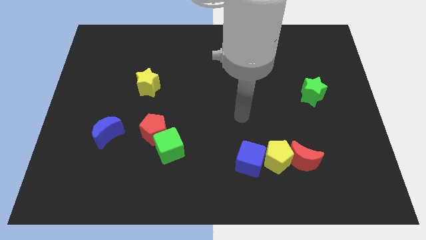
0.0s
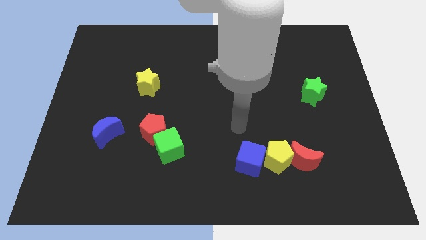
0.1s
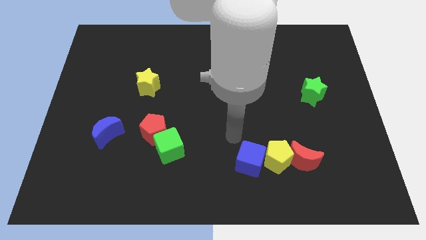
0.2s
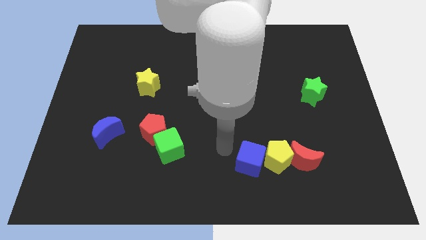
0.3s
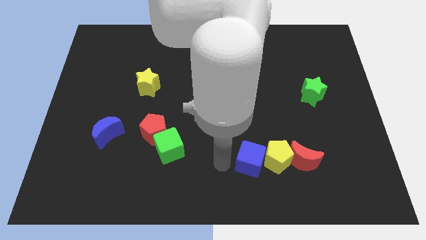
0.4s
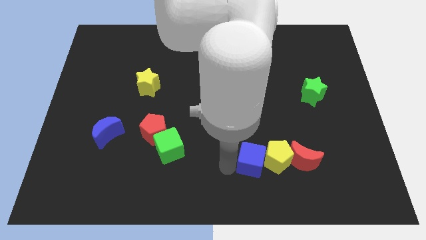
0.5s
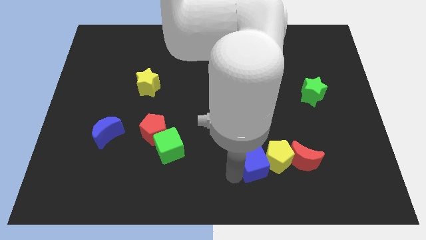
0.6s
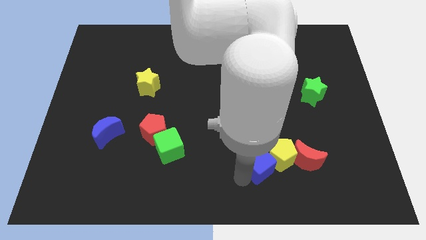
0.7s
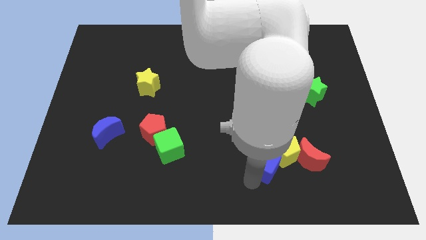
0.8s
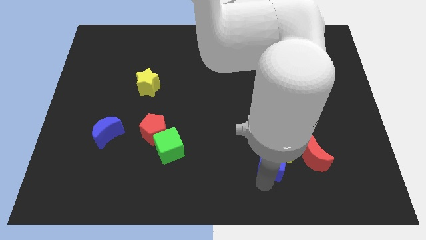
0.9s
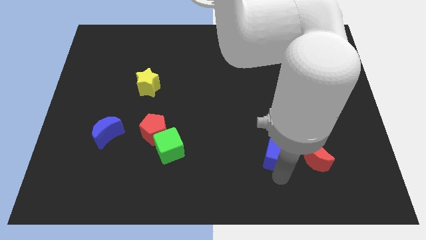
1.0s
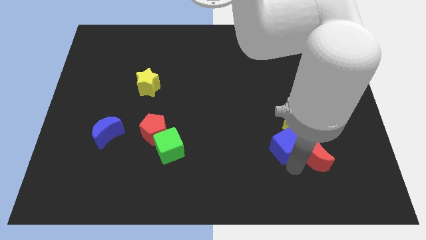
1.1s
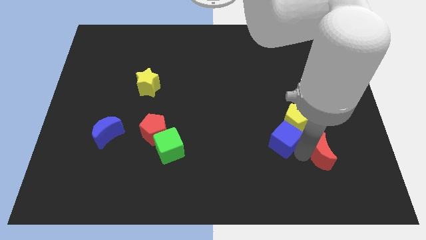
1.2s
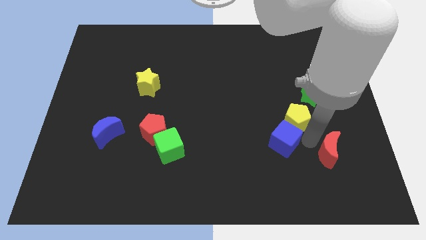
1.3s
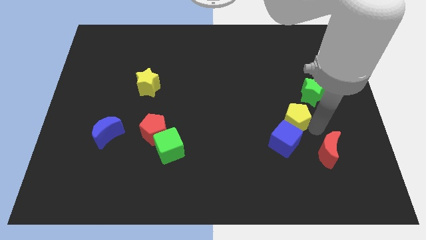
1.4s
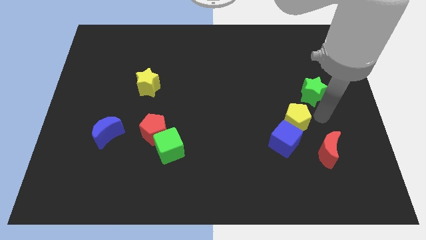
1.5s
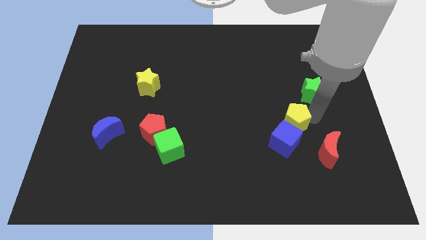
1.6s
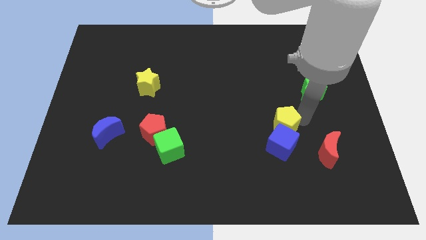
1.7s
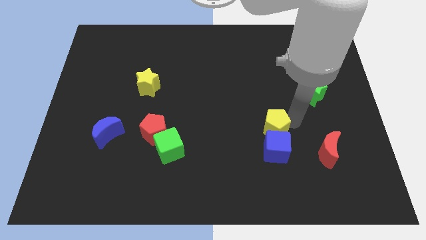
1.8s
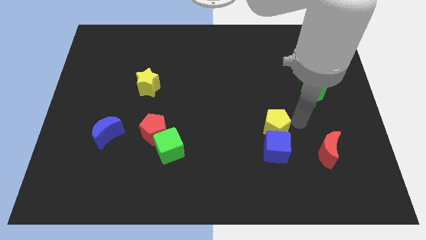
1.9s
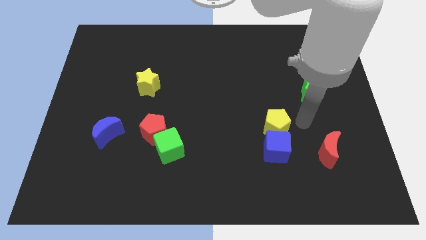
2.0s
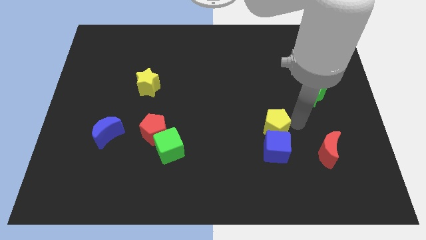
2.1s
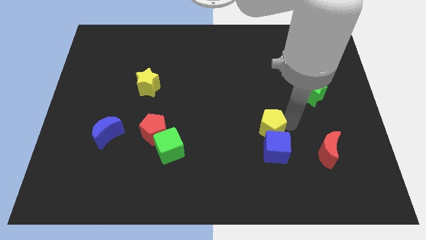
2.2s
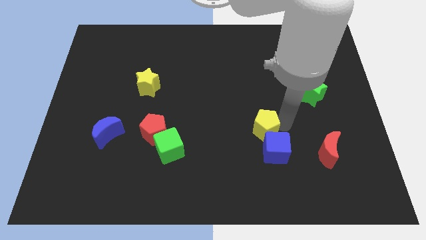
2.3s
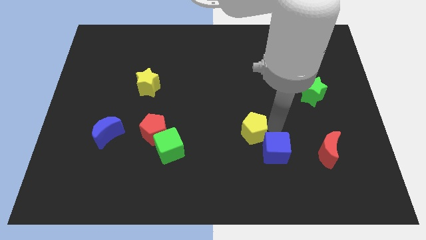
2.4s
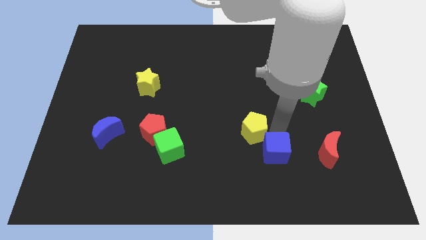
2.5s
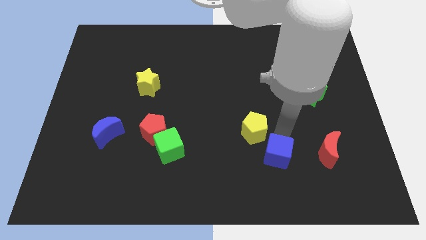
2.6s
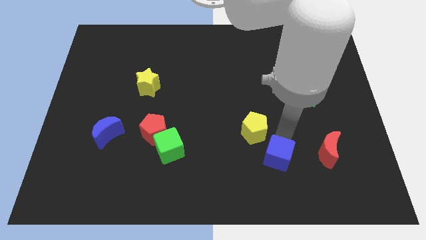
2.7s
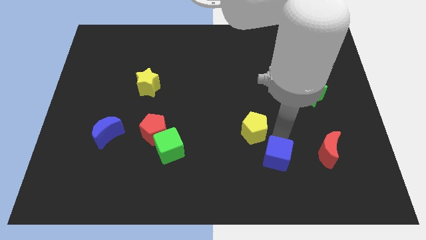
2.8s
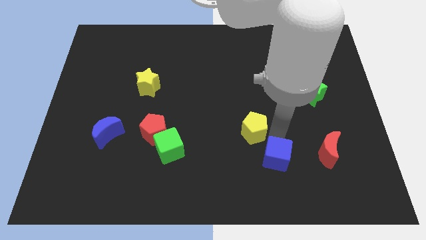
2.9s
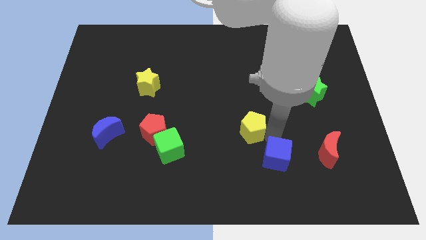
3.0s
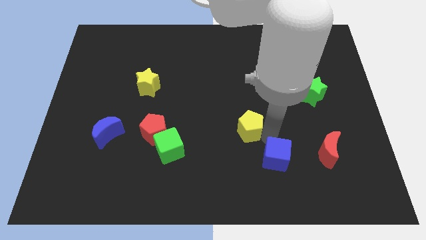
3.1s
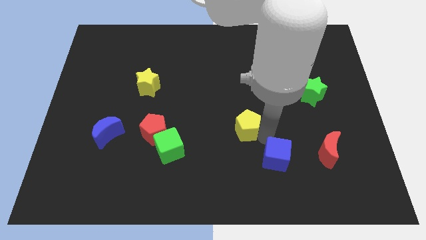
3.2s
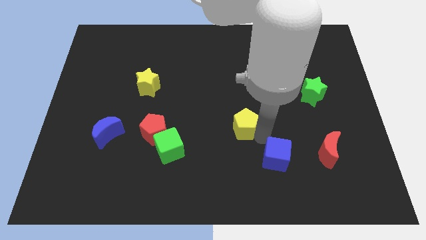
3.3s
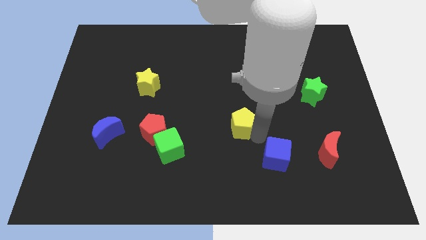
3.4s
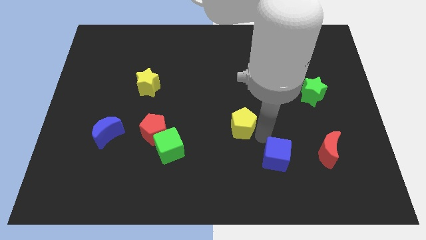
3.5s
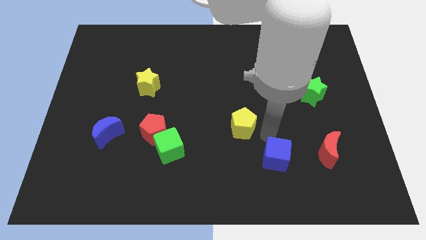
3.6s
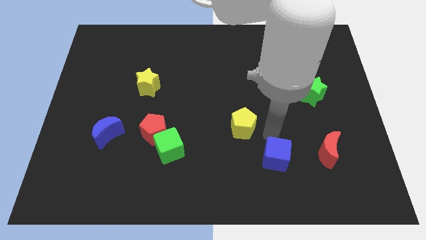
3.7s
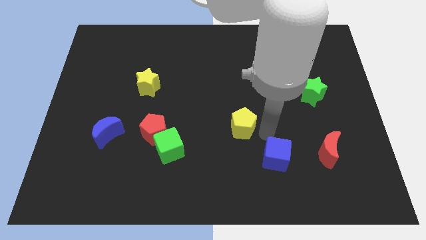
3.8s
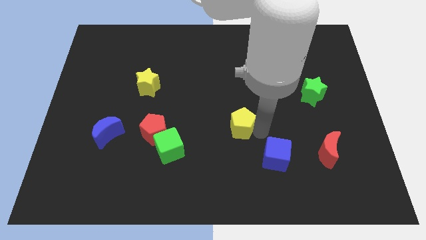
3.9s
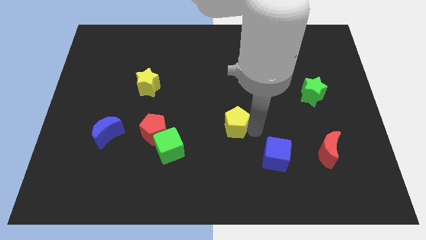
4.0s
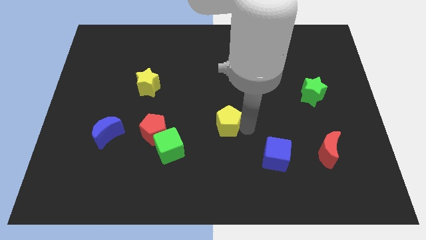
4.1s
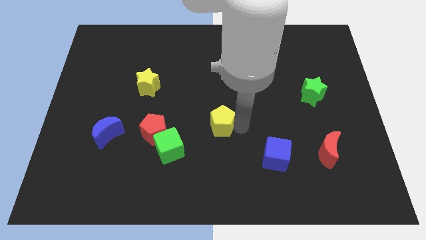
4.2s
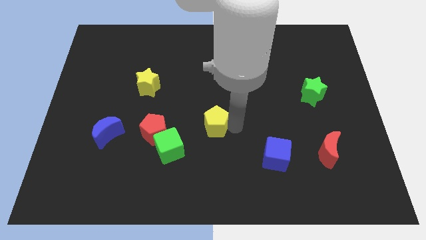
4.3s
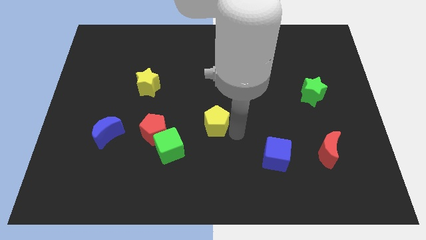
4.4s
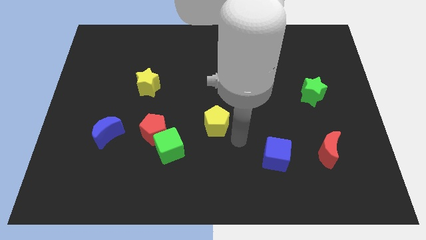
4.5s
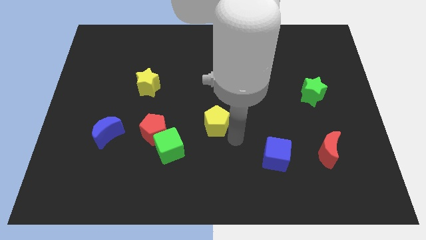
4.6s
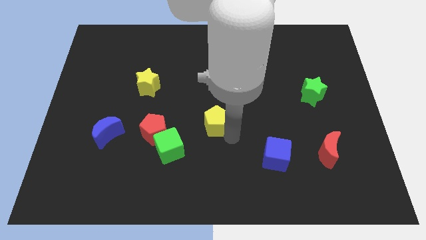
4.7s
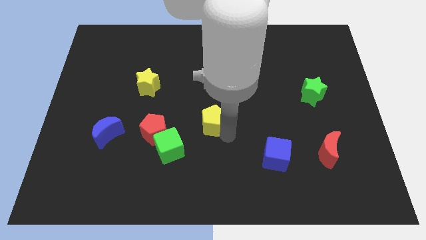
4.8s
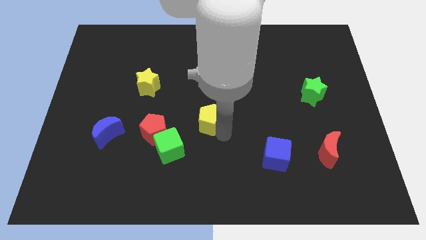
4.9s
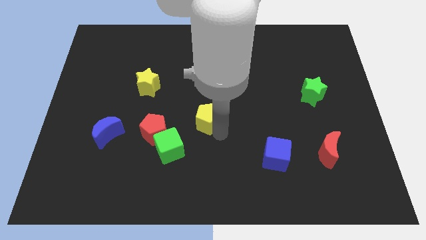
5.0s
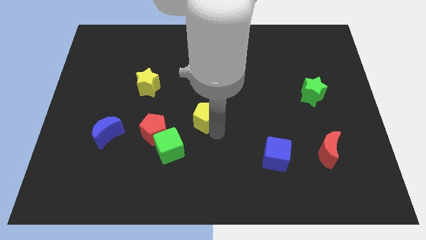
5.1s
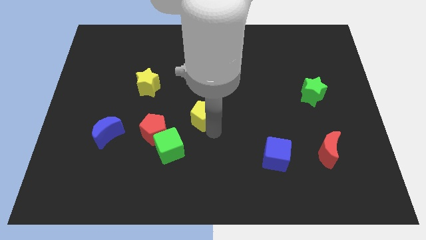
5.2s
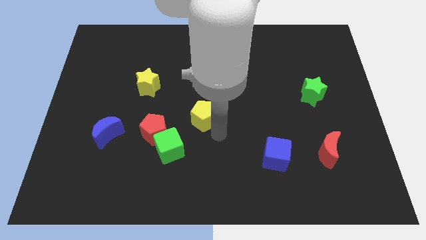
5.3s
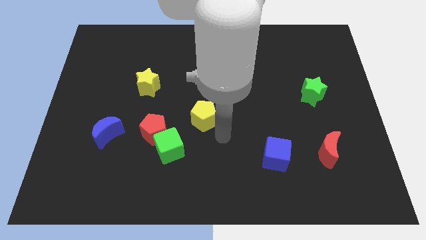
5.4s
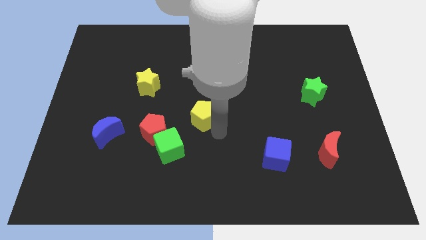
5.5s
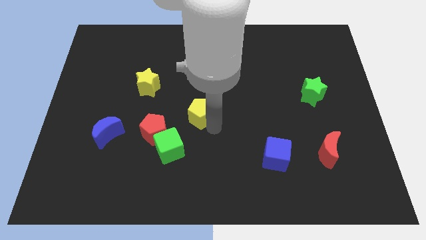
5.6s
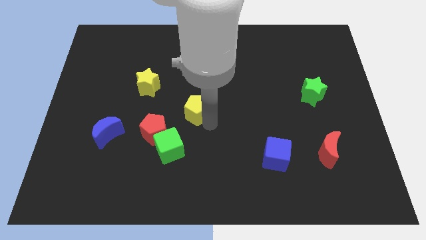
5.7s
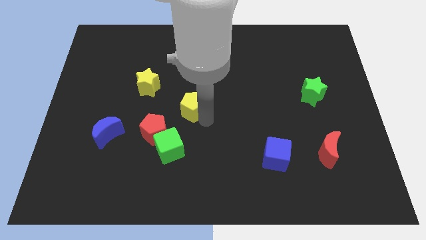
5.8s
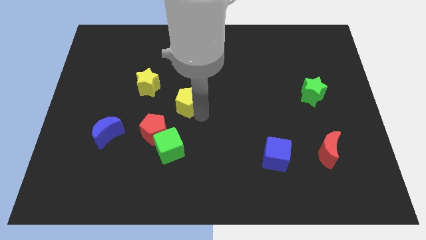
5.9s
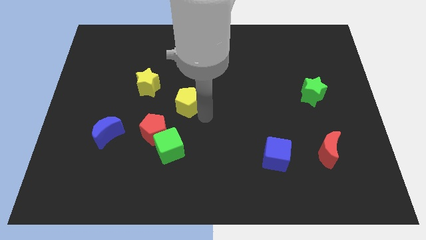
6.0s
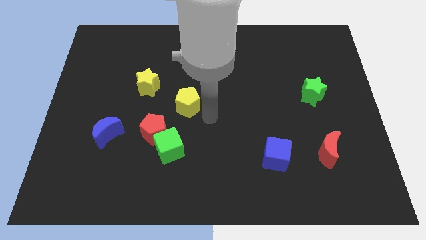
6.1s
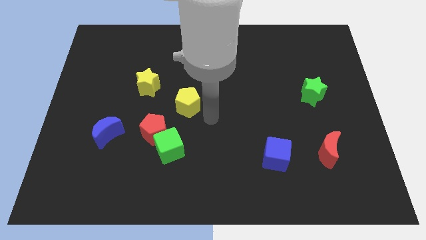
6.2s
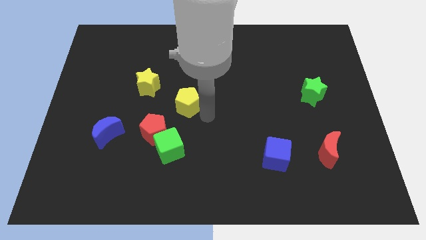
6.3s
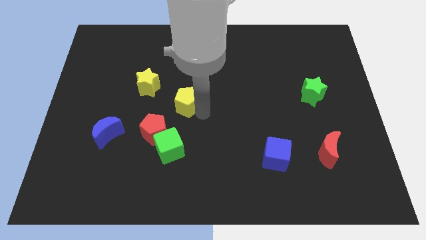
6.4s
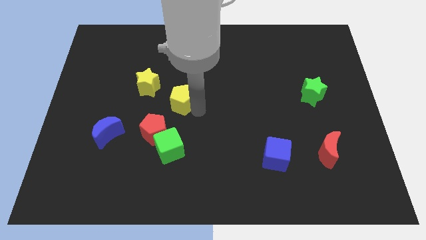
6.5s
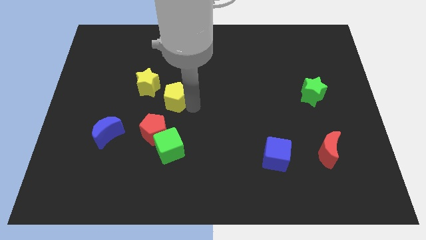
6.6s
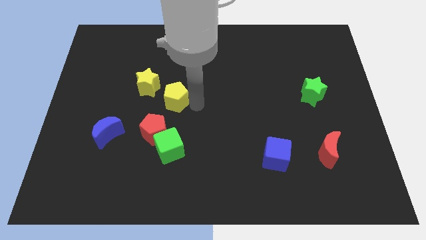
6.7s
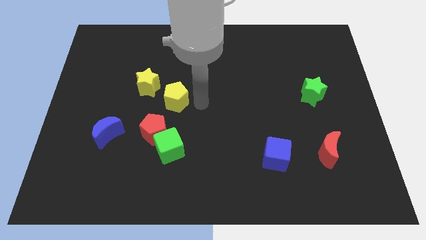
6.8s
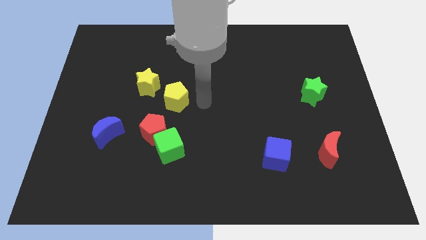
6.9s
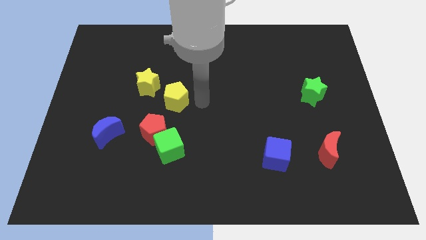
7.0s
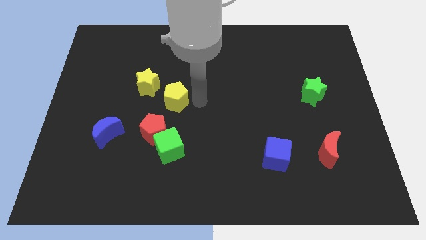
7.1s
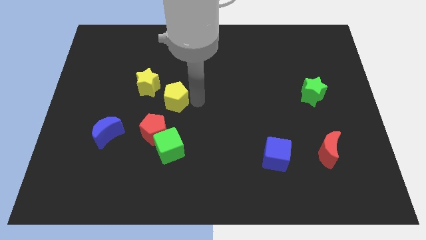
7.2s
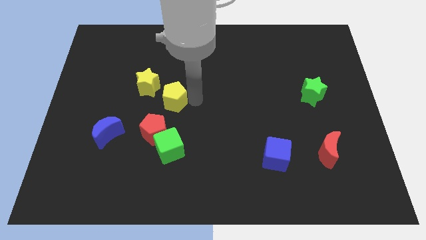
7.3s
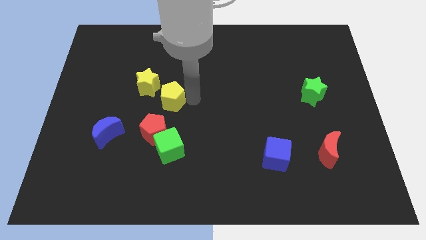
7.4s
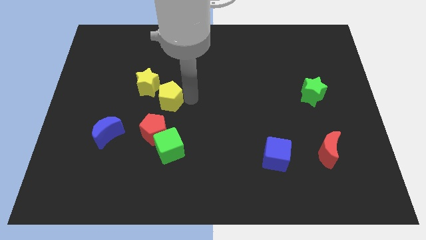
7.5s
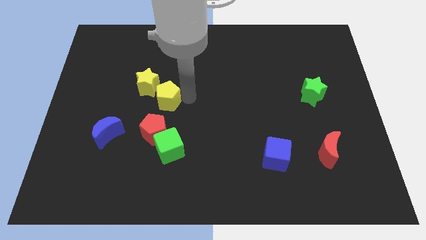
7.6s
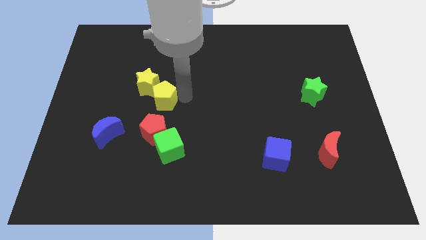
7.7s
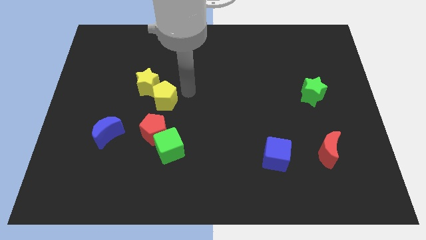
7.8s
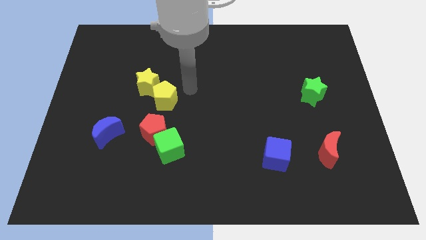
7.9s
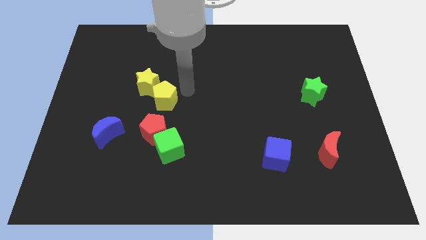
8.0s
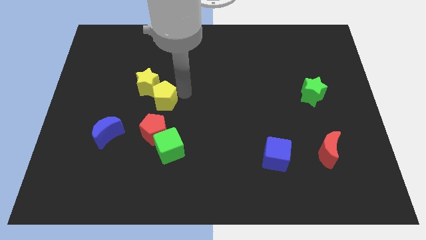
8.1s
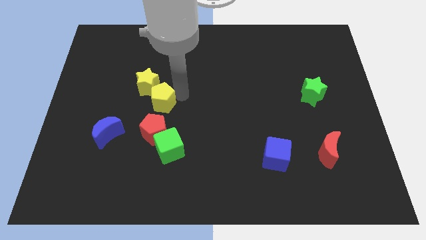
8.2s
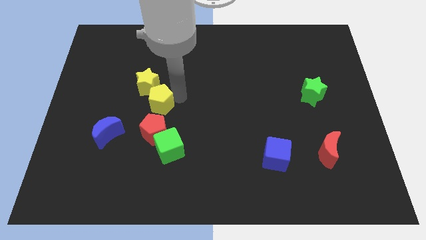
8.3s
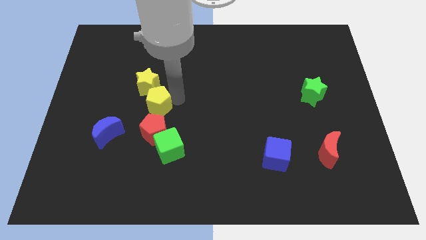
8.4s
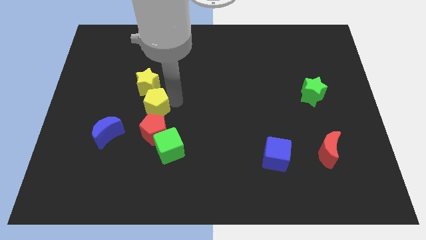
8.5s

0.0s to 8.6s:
put the yellow pentagon to the top left of the red pentagon
